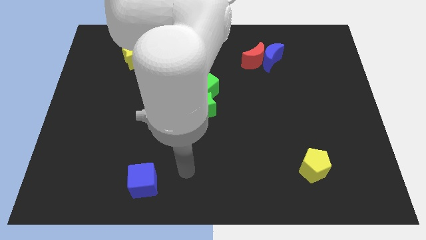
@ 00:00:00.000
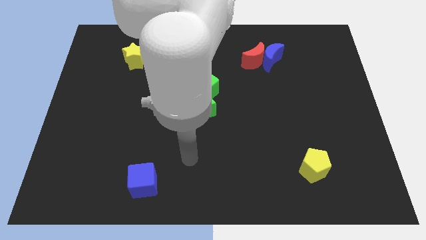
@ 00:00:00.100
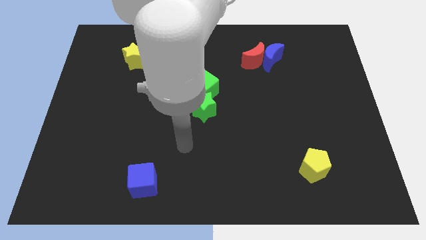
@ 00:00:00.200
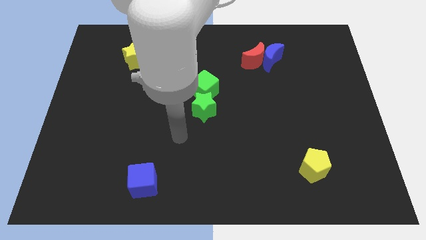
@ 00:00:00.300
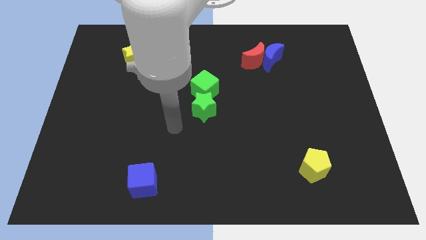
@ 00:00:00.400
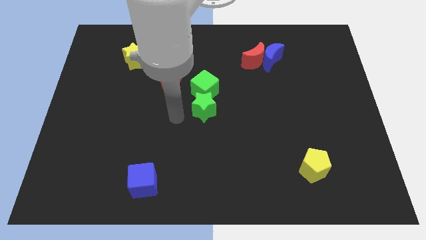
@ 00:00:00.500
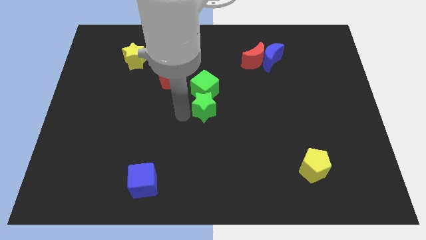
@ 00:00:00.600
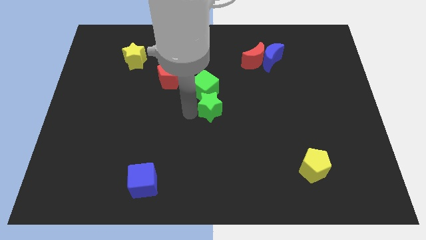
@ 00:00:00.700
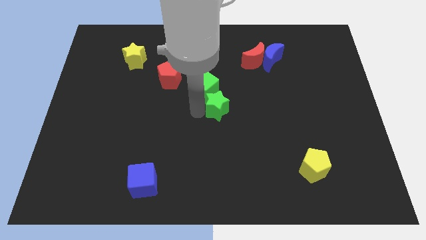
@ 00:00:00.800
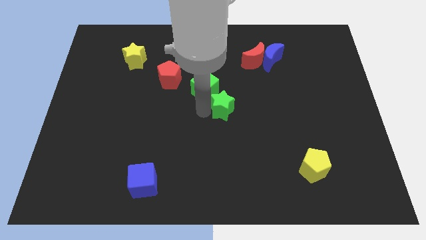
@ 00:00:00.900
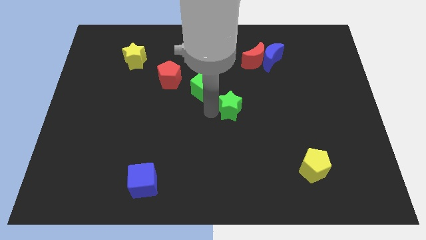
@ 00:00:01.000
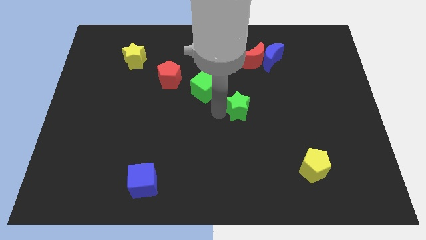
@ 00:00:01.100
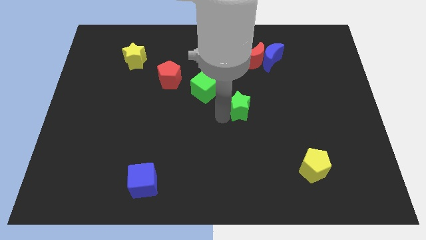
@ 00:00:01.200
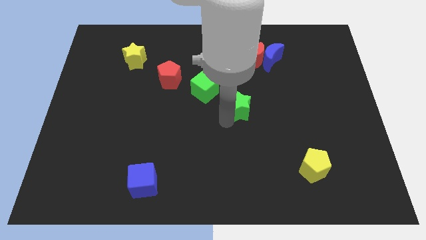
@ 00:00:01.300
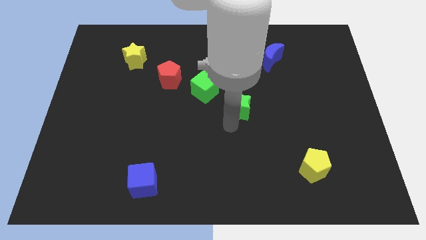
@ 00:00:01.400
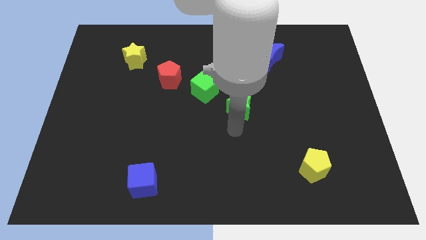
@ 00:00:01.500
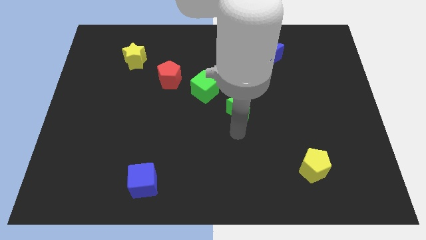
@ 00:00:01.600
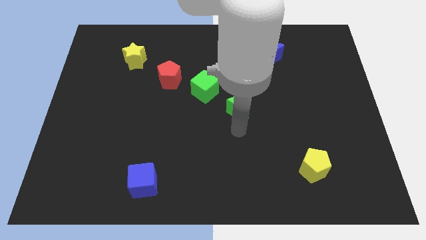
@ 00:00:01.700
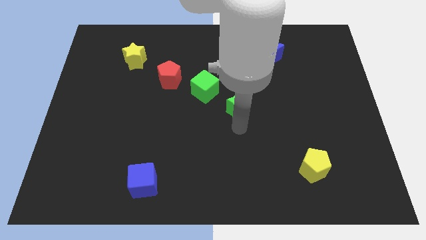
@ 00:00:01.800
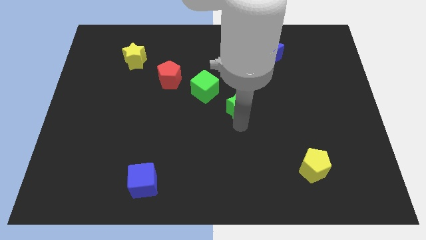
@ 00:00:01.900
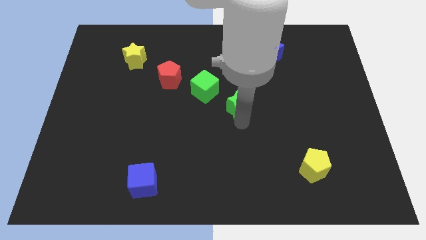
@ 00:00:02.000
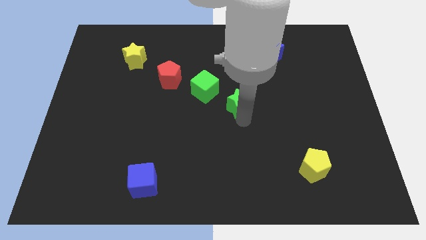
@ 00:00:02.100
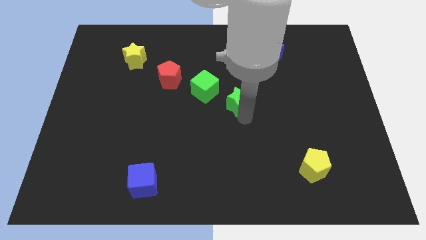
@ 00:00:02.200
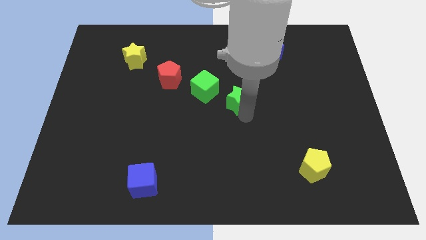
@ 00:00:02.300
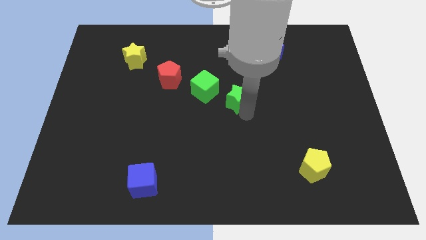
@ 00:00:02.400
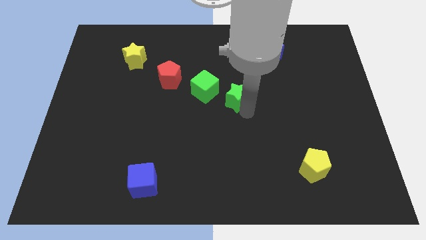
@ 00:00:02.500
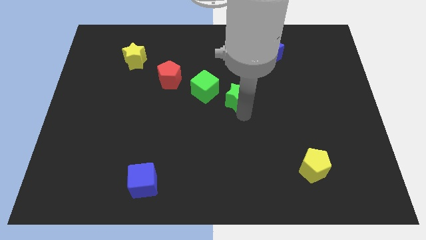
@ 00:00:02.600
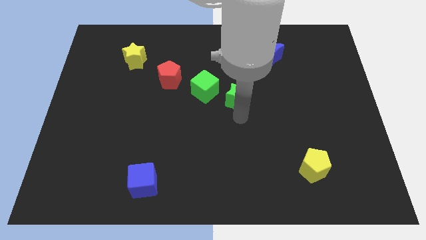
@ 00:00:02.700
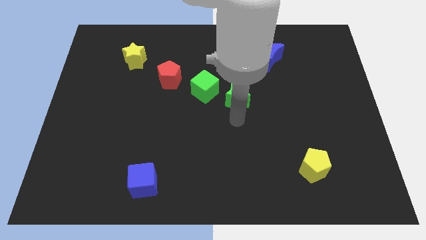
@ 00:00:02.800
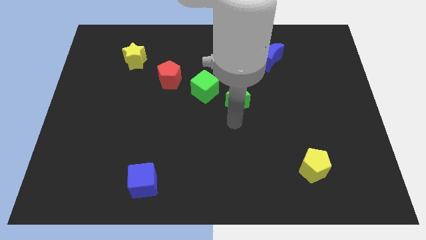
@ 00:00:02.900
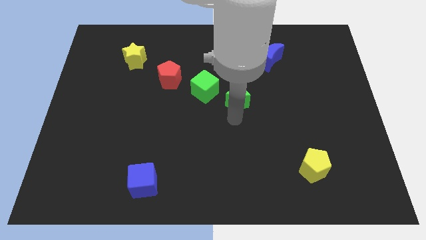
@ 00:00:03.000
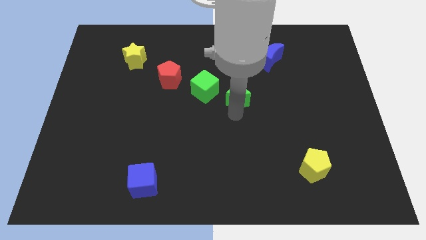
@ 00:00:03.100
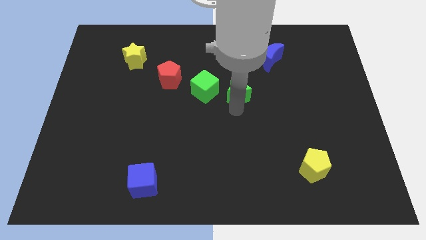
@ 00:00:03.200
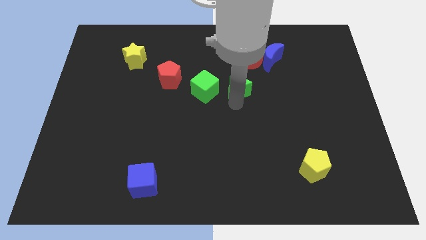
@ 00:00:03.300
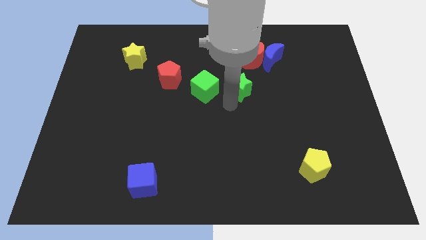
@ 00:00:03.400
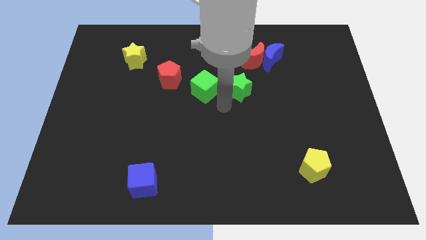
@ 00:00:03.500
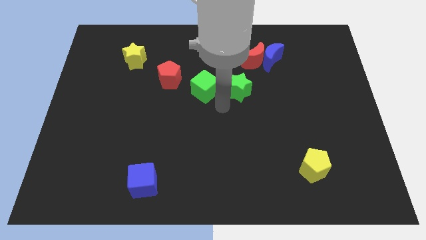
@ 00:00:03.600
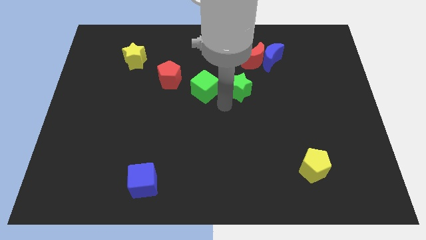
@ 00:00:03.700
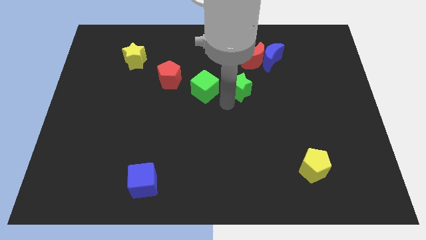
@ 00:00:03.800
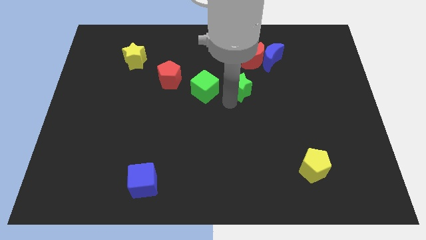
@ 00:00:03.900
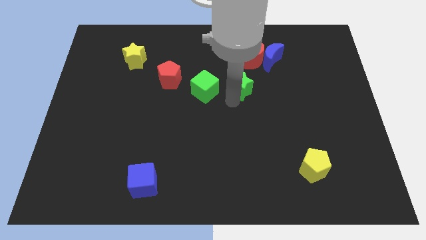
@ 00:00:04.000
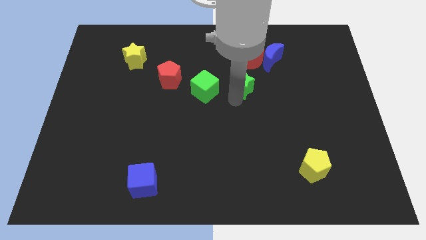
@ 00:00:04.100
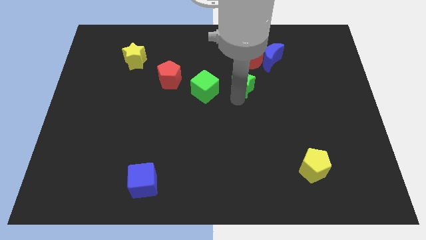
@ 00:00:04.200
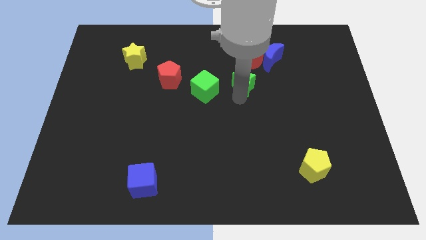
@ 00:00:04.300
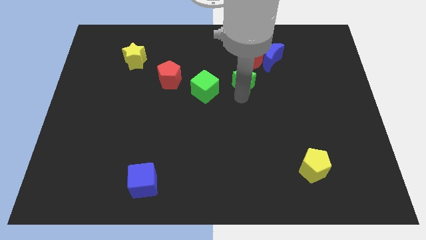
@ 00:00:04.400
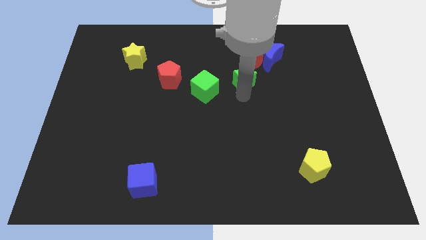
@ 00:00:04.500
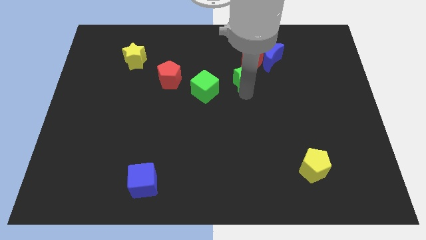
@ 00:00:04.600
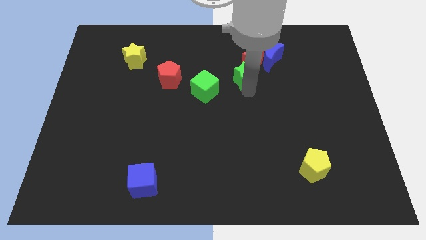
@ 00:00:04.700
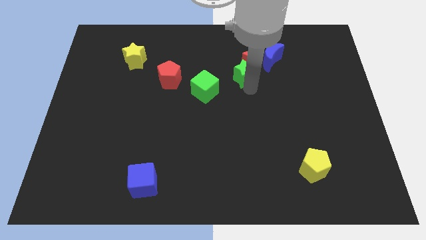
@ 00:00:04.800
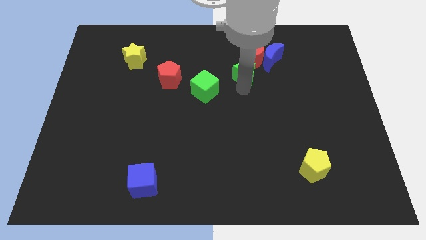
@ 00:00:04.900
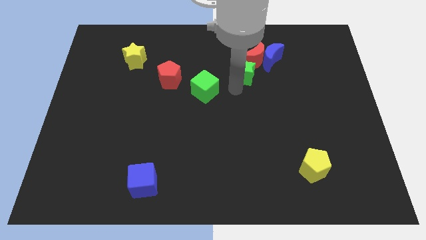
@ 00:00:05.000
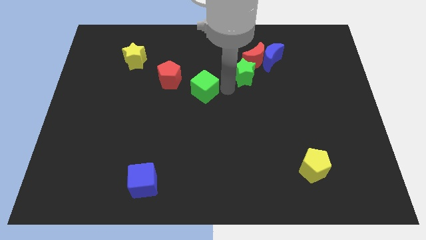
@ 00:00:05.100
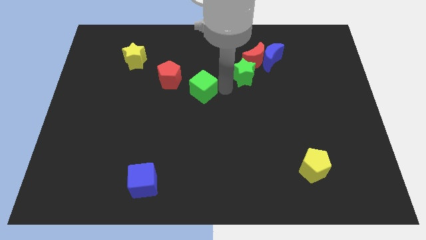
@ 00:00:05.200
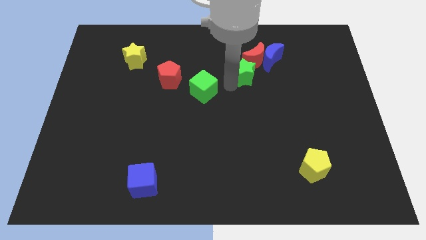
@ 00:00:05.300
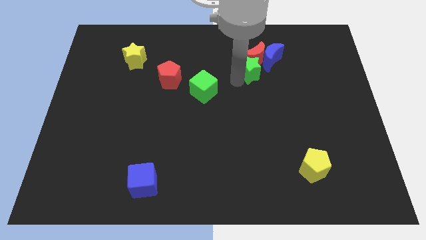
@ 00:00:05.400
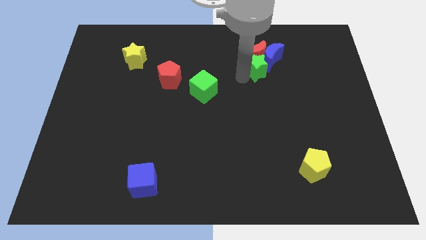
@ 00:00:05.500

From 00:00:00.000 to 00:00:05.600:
move the green star to the blue moon

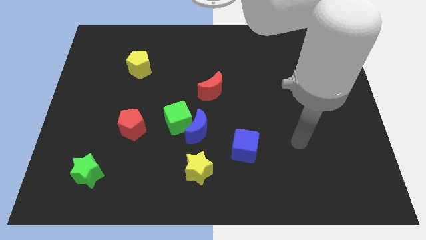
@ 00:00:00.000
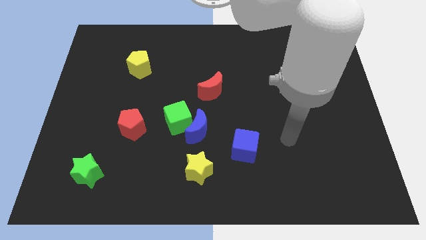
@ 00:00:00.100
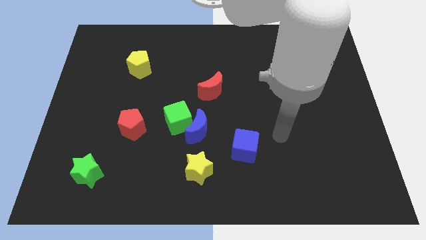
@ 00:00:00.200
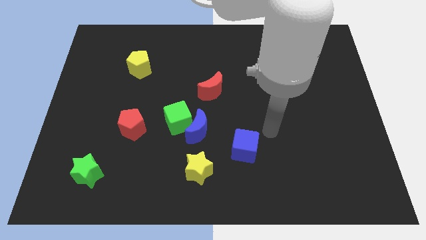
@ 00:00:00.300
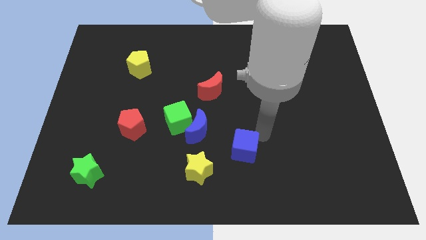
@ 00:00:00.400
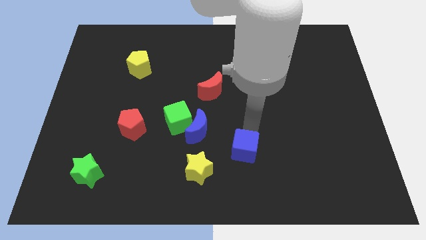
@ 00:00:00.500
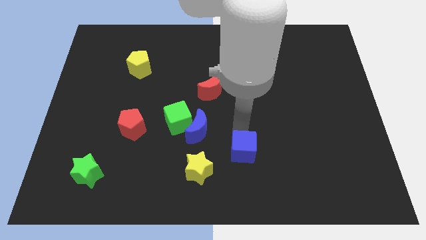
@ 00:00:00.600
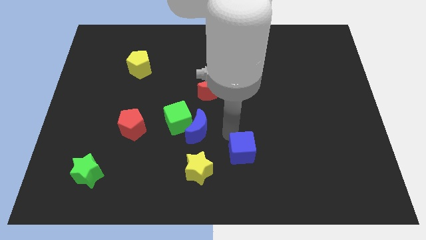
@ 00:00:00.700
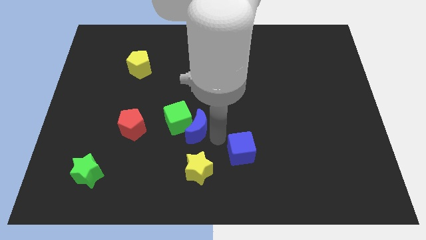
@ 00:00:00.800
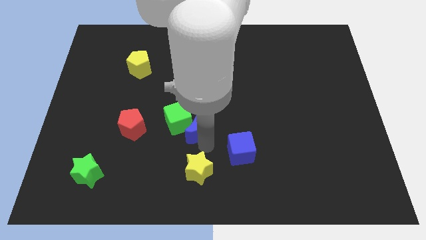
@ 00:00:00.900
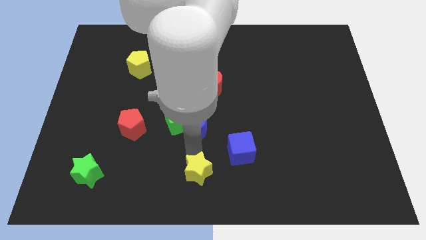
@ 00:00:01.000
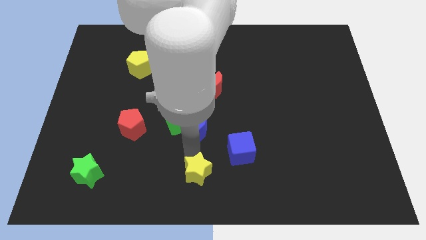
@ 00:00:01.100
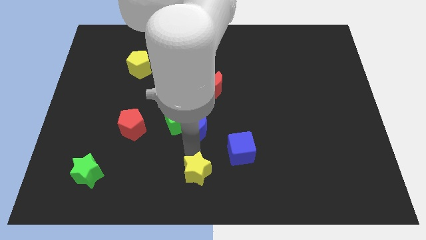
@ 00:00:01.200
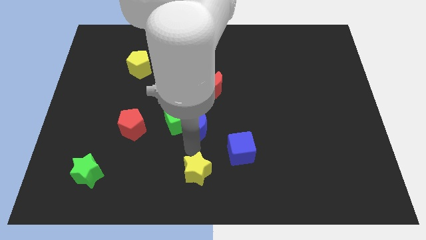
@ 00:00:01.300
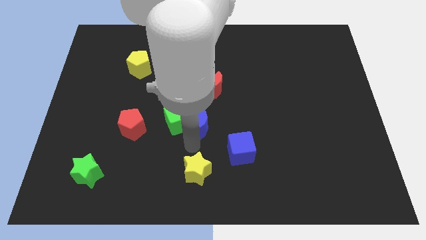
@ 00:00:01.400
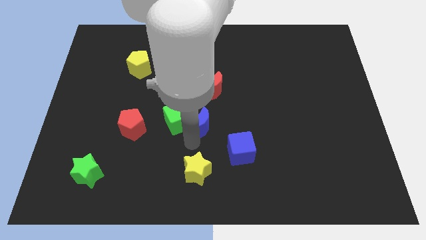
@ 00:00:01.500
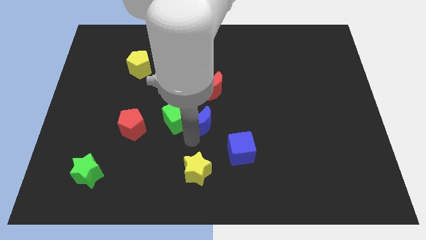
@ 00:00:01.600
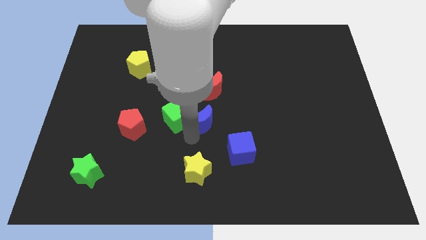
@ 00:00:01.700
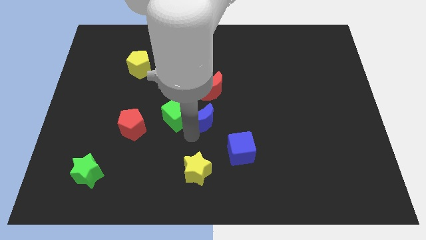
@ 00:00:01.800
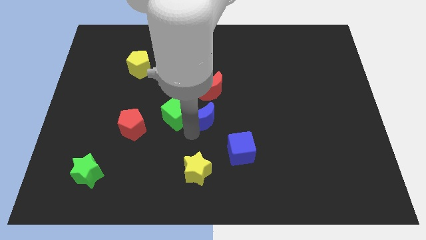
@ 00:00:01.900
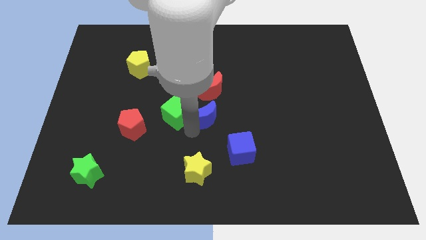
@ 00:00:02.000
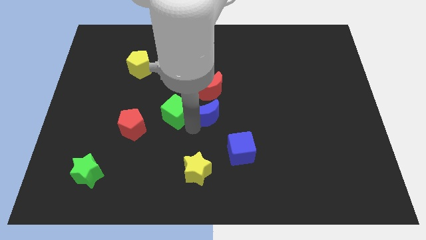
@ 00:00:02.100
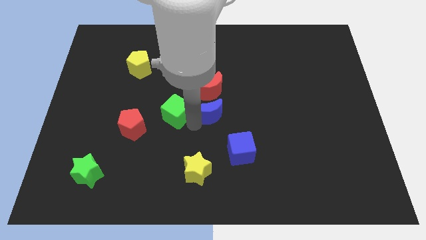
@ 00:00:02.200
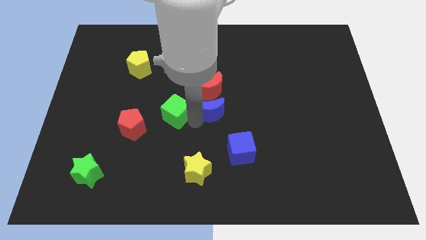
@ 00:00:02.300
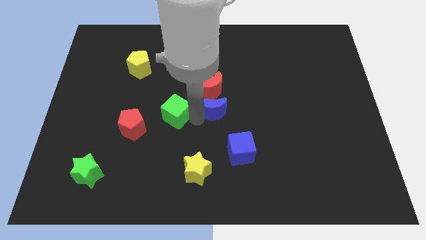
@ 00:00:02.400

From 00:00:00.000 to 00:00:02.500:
put the blue moon to the red moon
